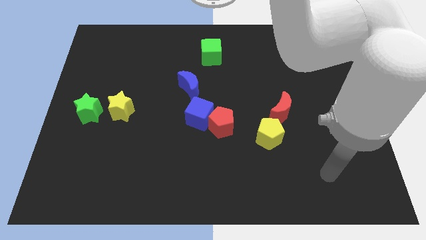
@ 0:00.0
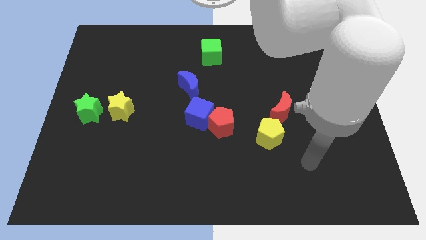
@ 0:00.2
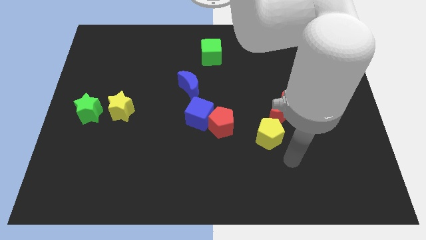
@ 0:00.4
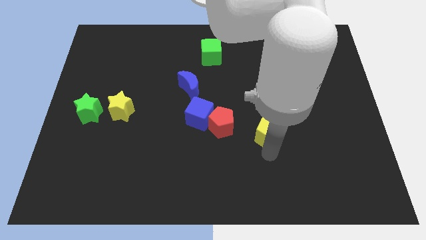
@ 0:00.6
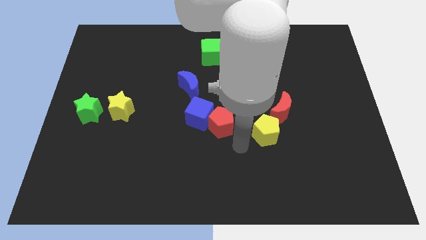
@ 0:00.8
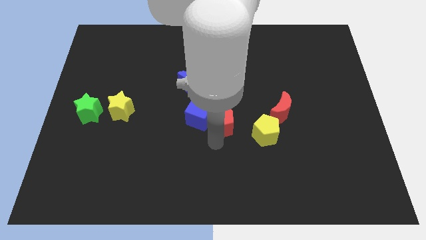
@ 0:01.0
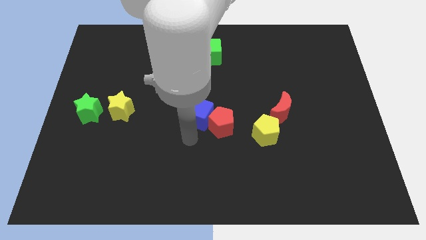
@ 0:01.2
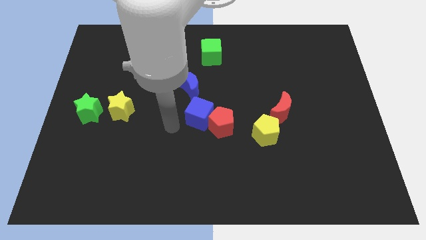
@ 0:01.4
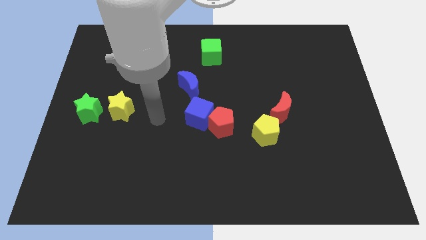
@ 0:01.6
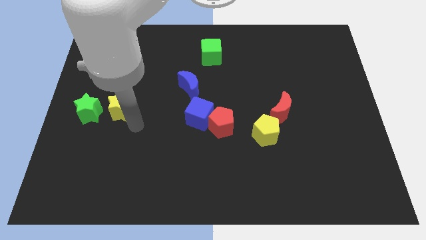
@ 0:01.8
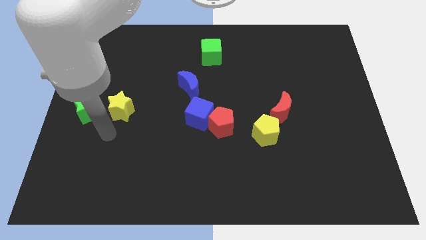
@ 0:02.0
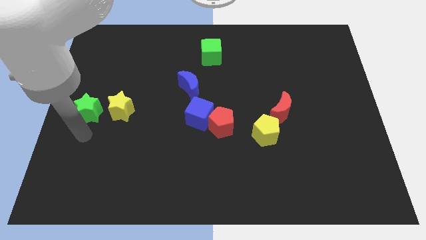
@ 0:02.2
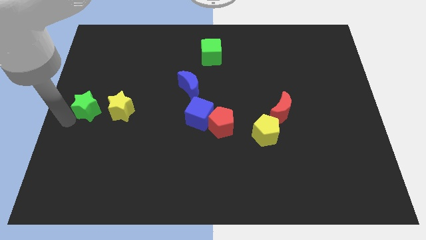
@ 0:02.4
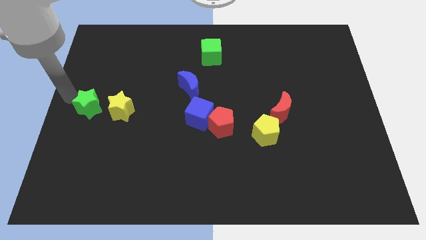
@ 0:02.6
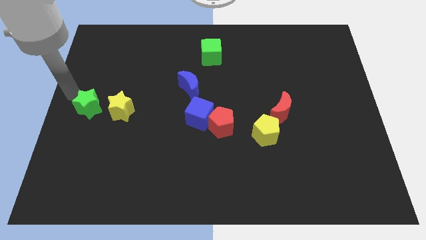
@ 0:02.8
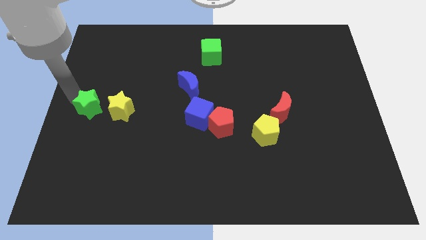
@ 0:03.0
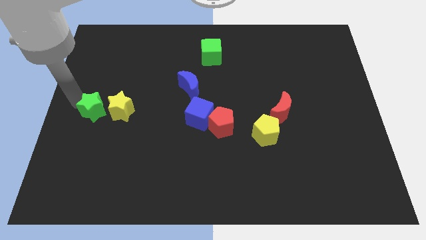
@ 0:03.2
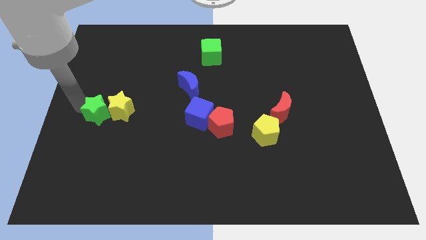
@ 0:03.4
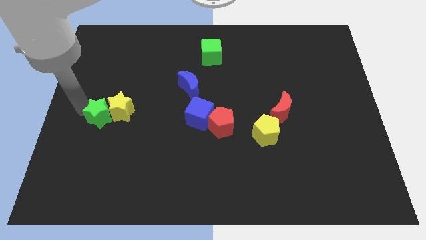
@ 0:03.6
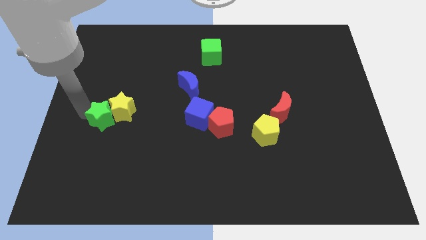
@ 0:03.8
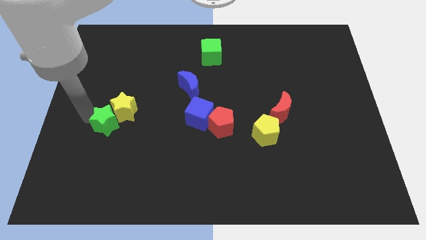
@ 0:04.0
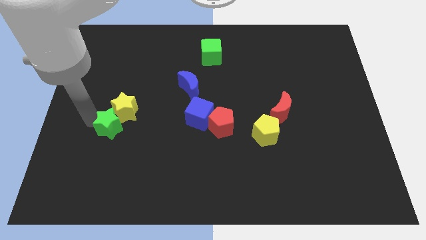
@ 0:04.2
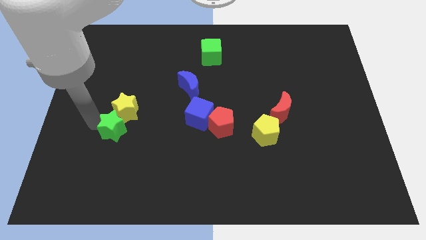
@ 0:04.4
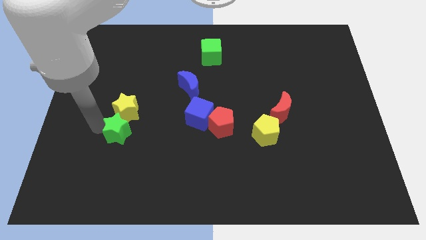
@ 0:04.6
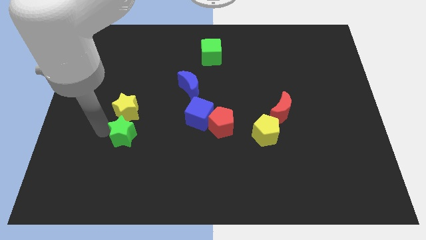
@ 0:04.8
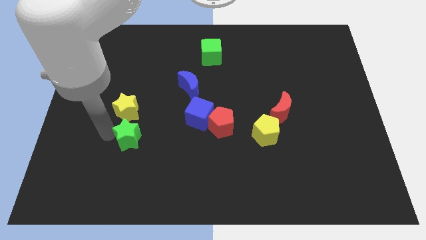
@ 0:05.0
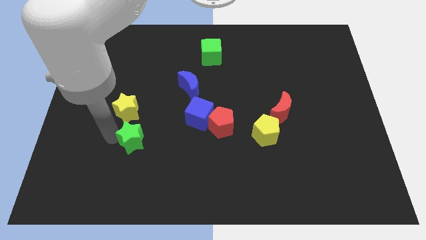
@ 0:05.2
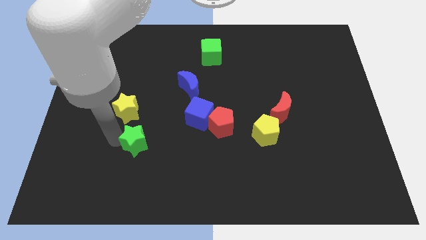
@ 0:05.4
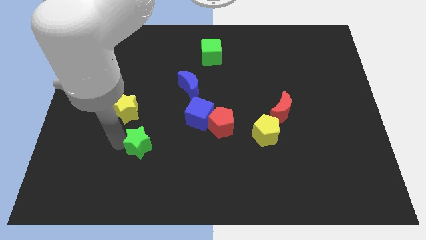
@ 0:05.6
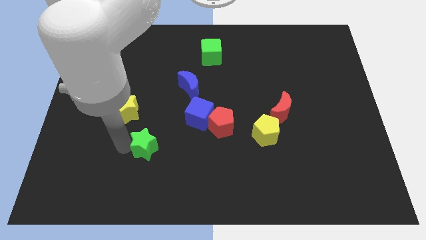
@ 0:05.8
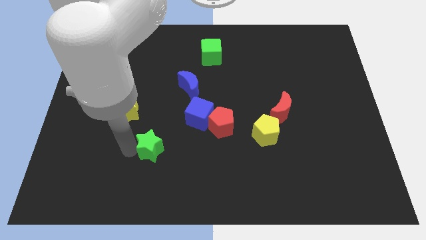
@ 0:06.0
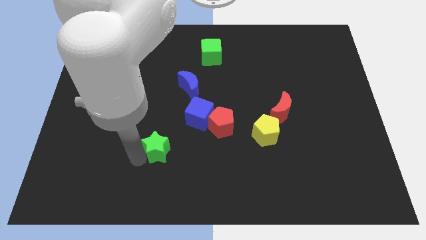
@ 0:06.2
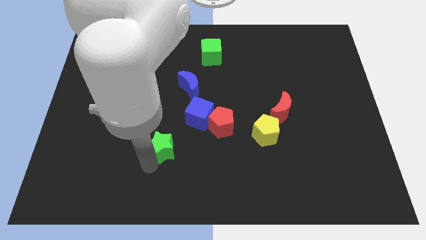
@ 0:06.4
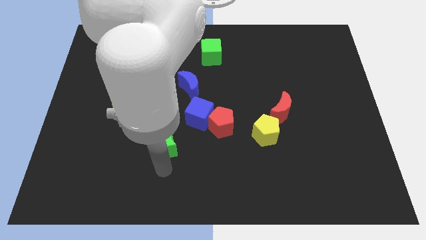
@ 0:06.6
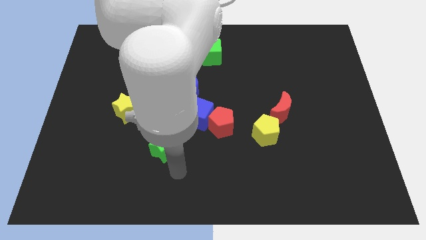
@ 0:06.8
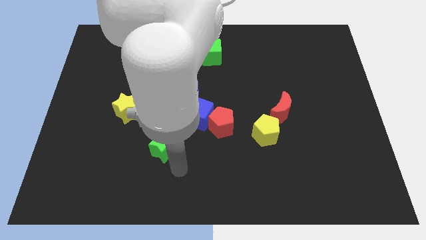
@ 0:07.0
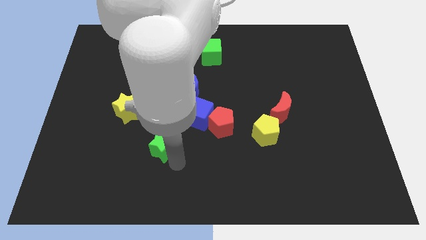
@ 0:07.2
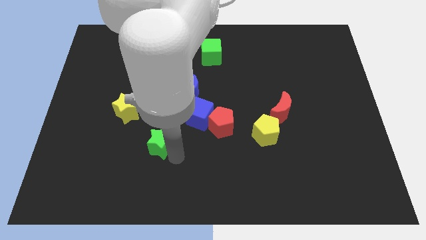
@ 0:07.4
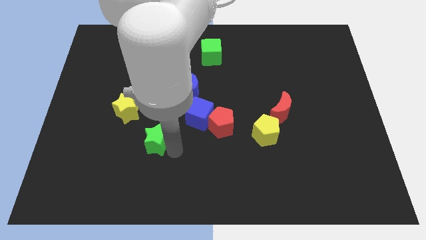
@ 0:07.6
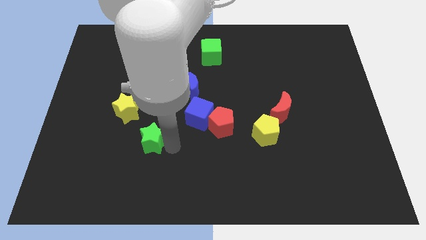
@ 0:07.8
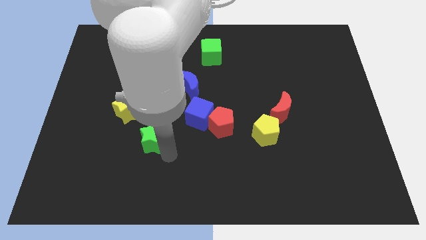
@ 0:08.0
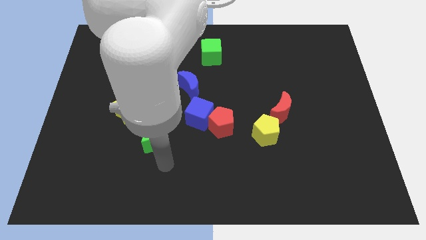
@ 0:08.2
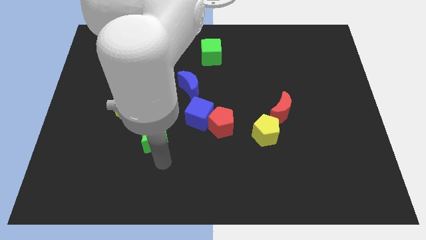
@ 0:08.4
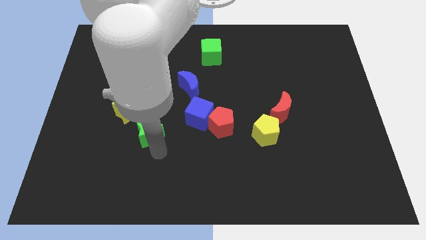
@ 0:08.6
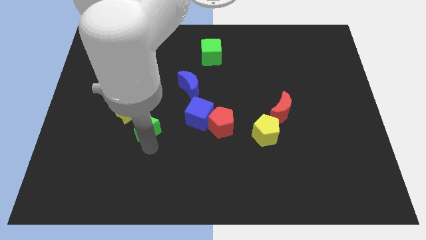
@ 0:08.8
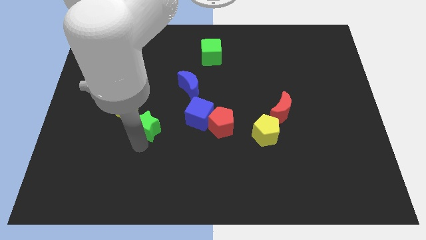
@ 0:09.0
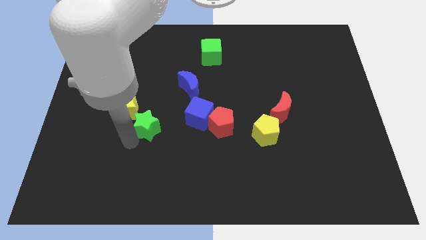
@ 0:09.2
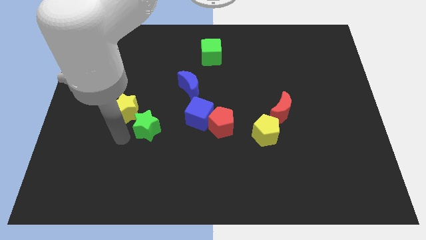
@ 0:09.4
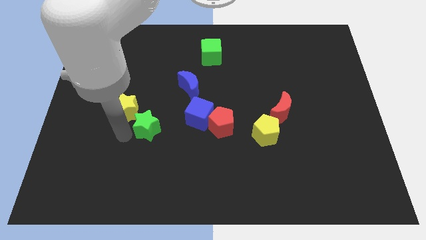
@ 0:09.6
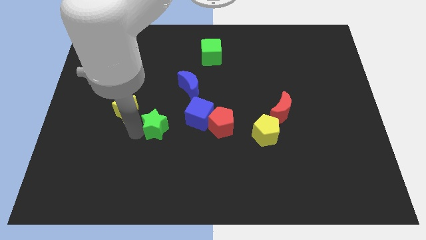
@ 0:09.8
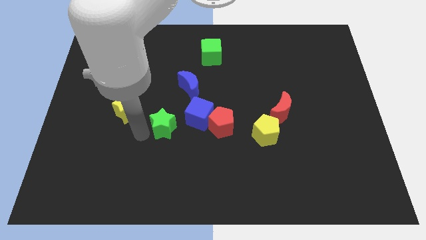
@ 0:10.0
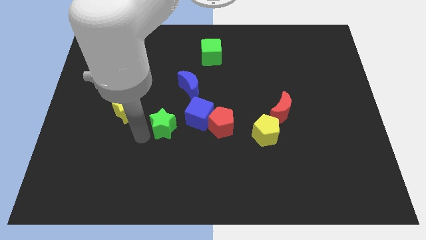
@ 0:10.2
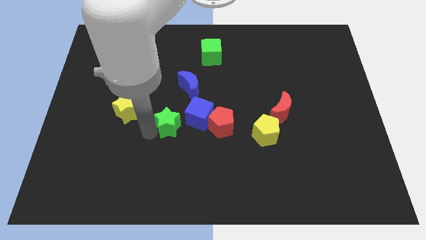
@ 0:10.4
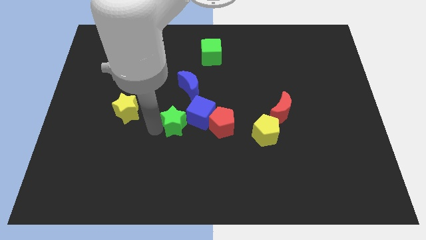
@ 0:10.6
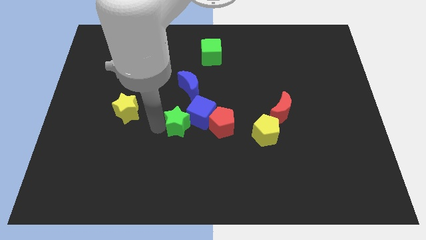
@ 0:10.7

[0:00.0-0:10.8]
push the green star to the blue cube
